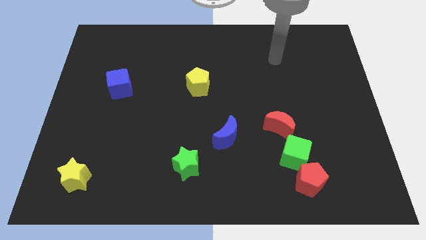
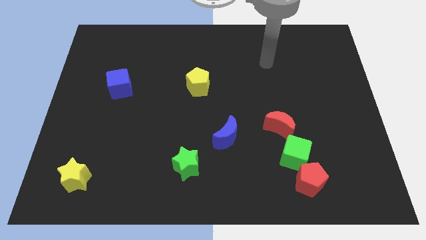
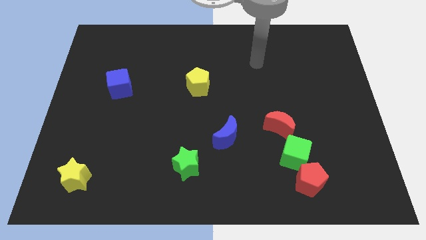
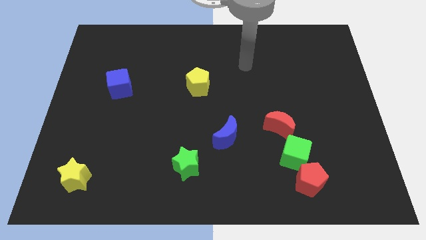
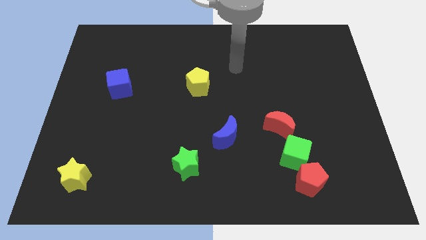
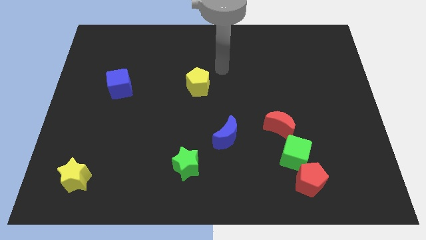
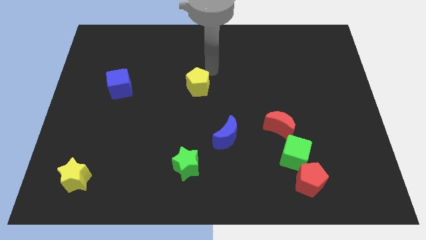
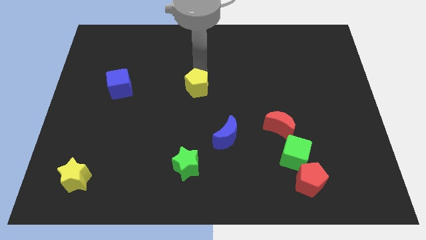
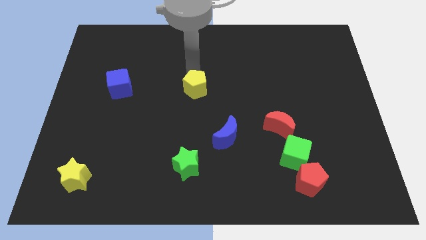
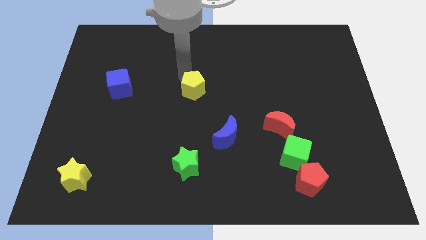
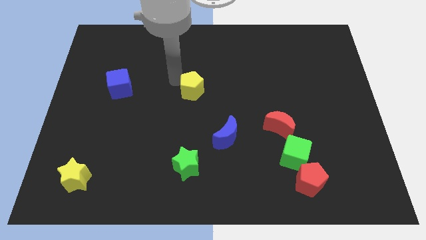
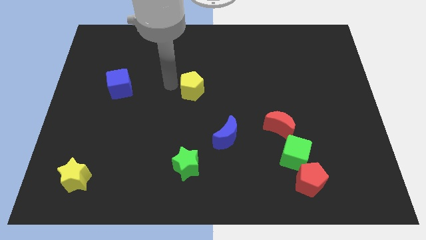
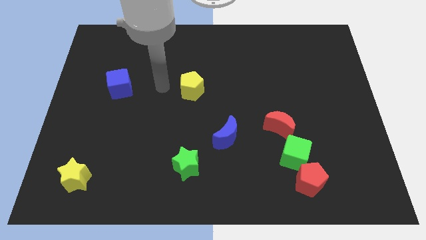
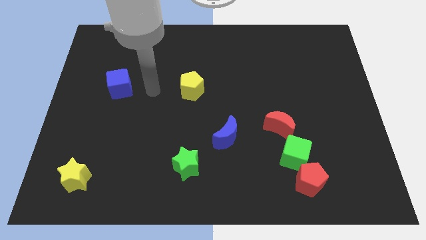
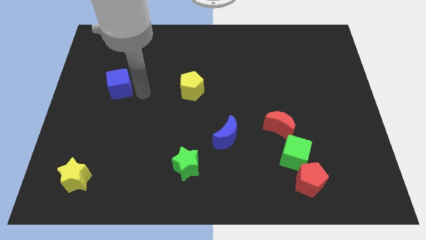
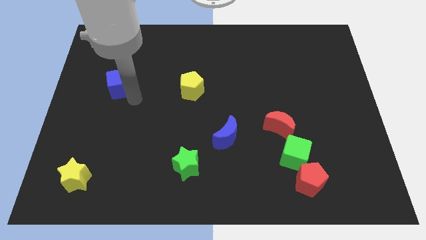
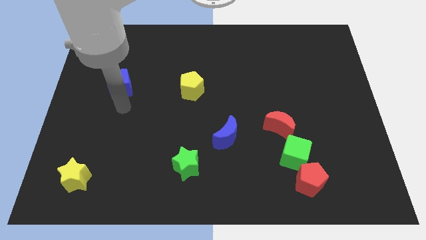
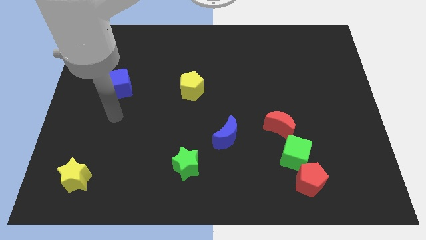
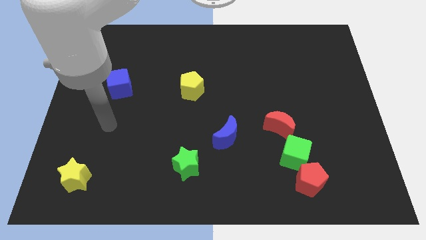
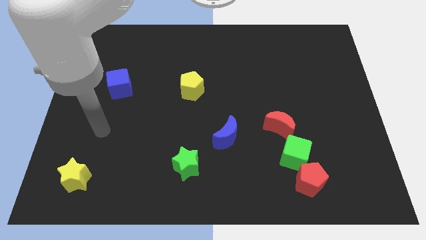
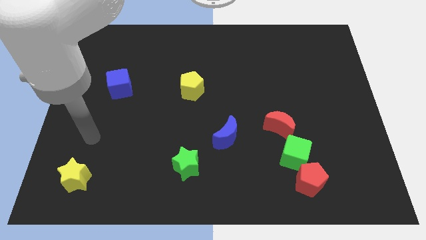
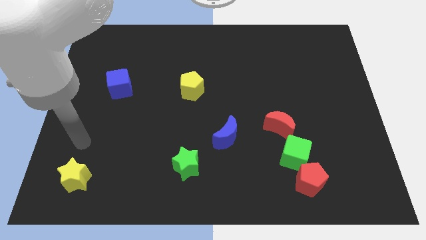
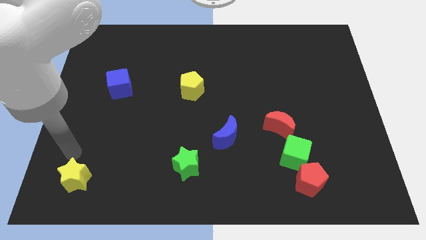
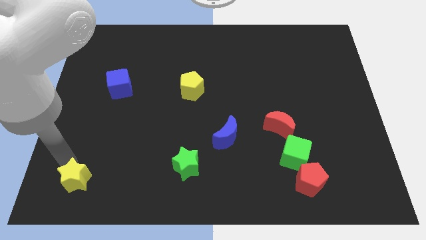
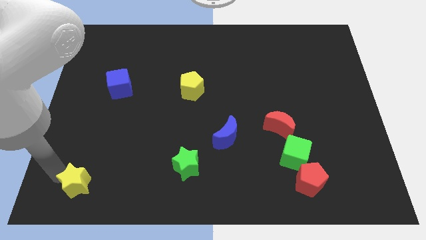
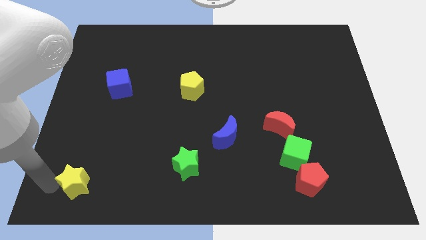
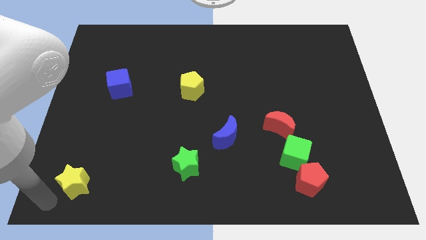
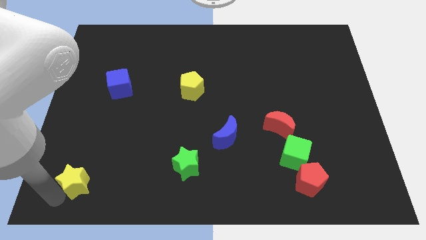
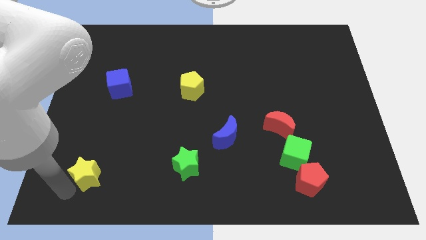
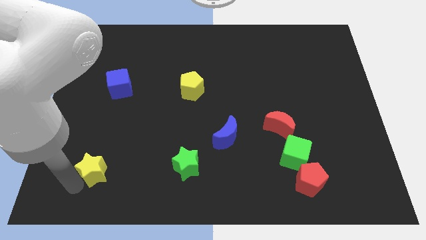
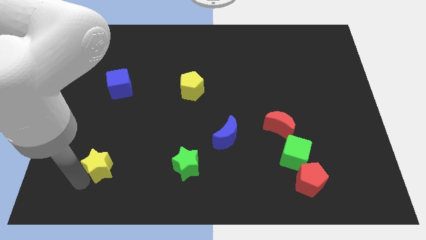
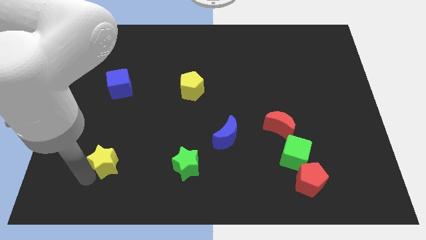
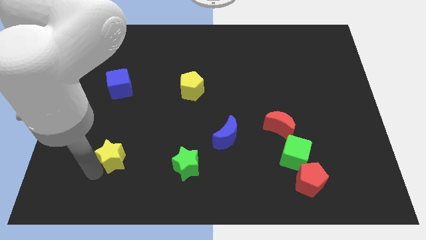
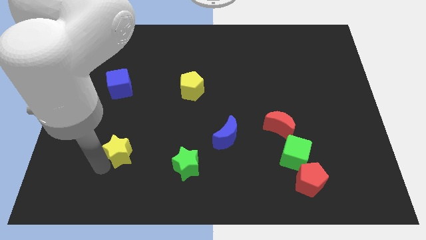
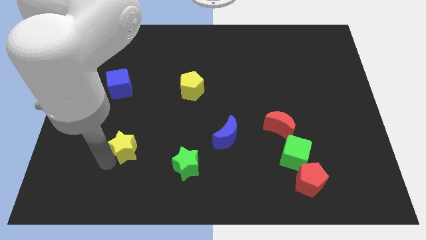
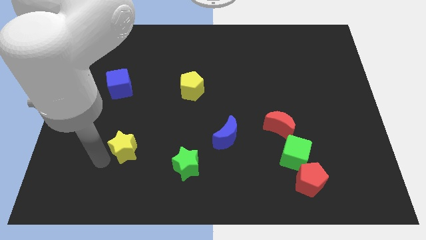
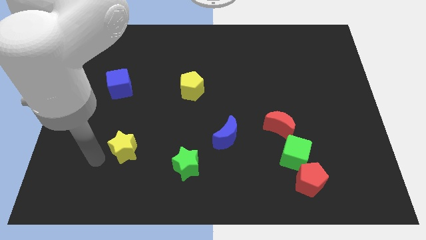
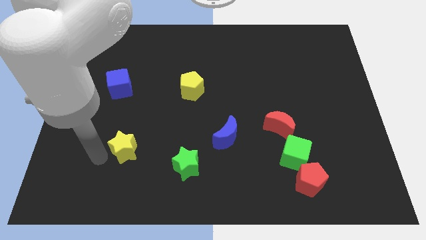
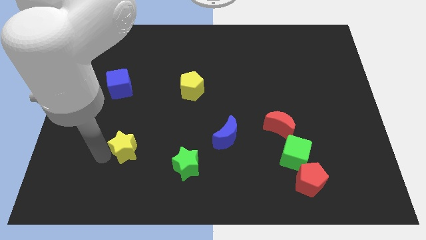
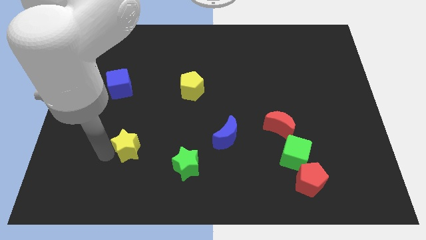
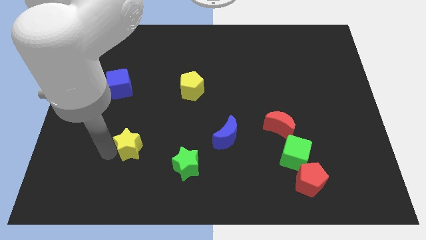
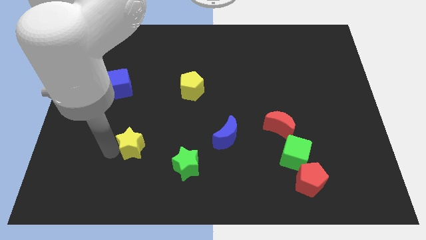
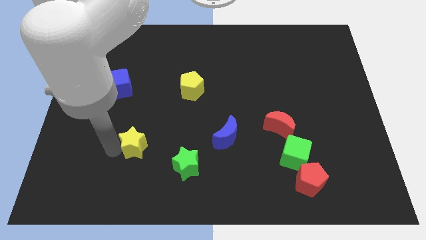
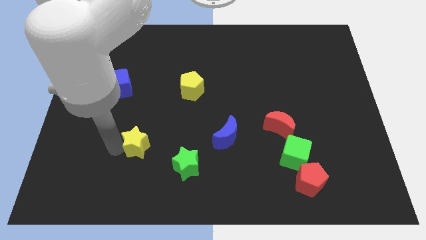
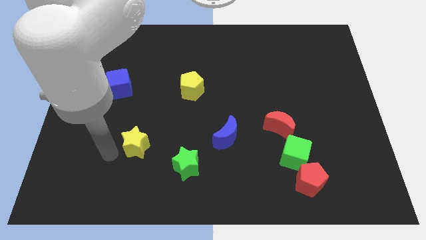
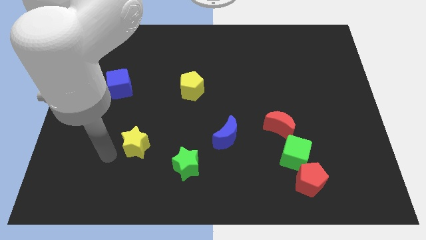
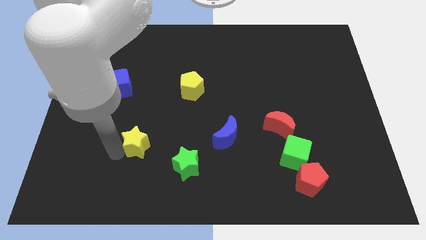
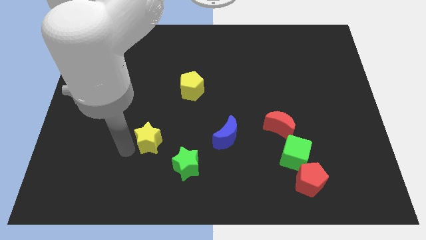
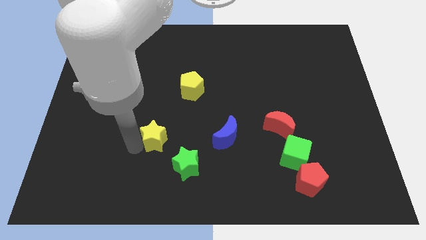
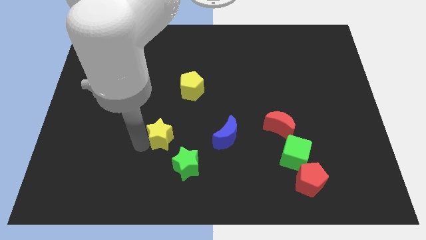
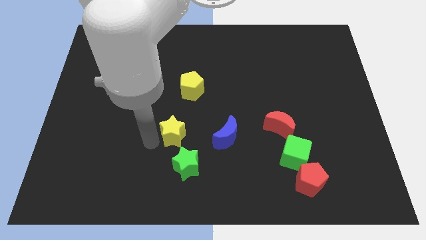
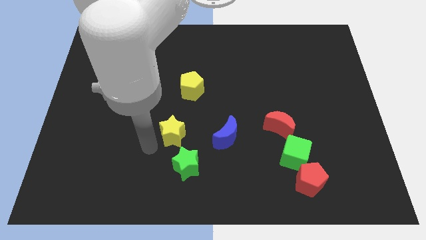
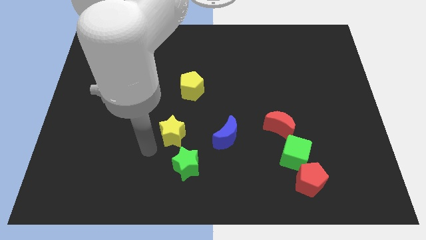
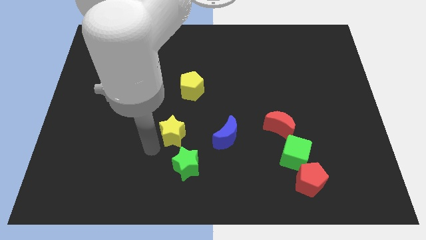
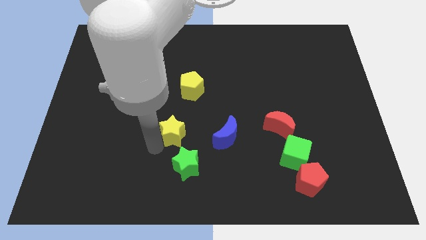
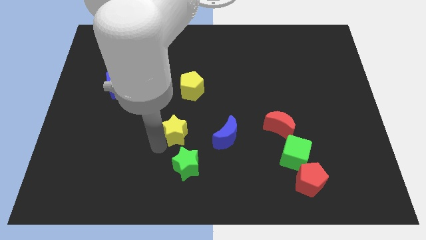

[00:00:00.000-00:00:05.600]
push the yellow star to the center

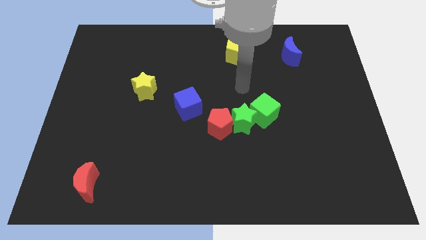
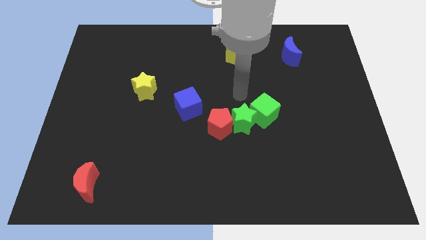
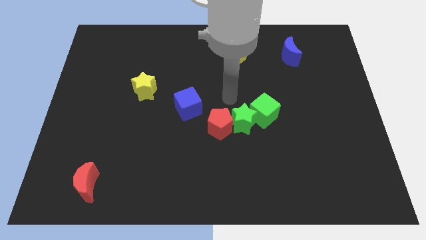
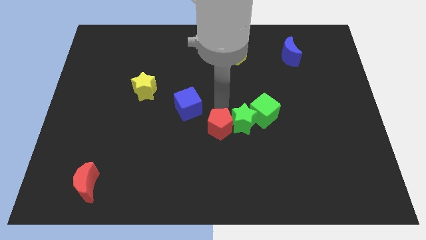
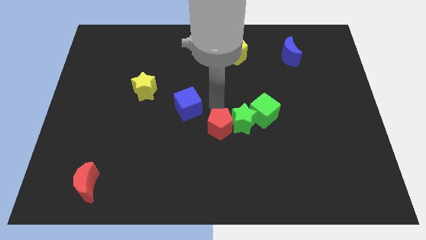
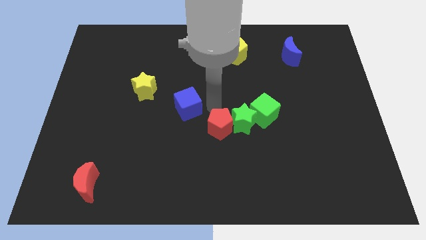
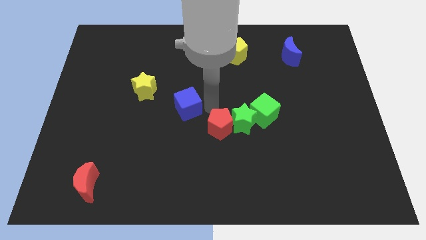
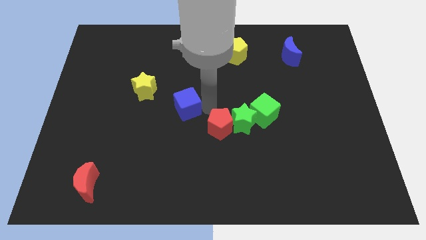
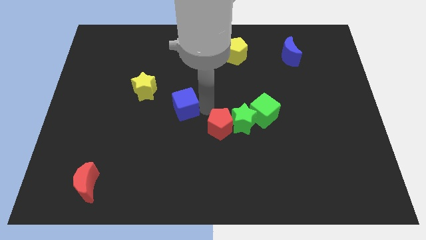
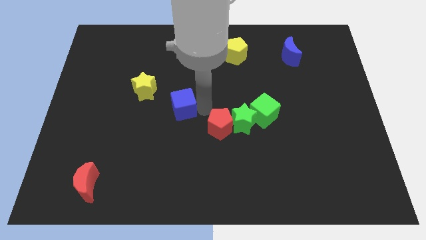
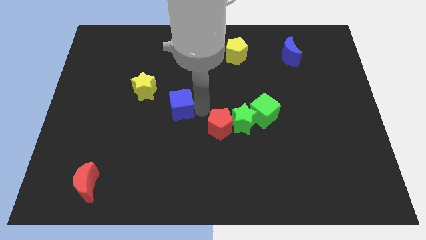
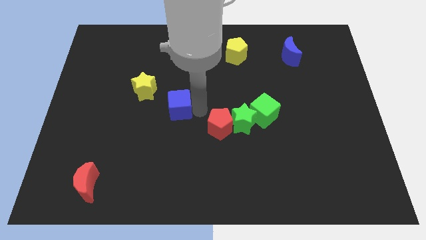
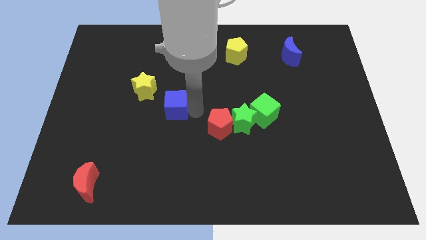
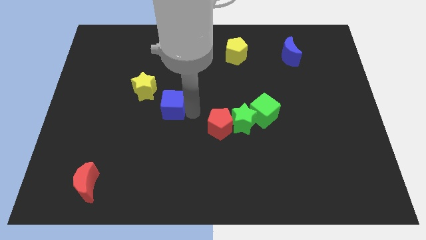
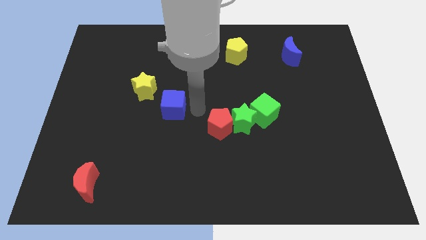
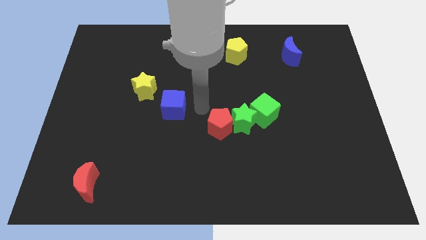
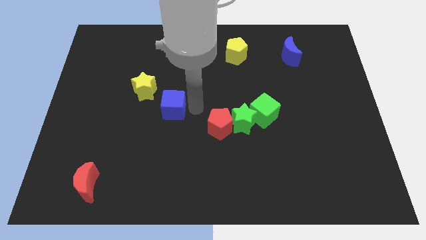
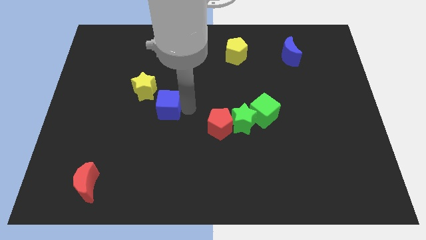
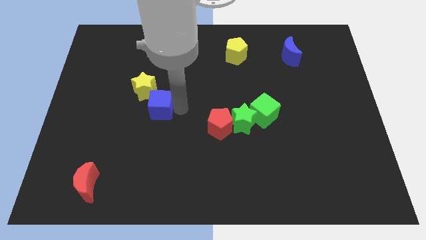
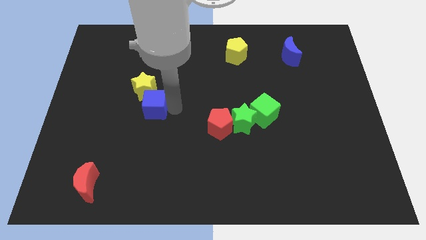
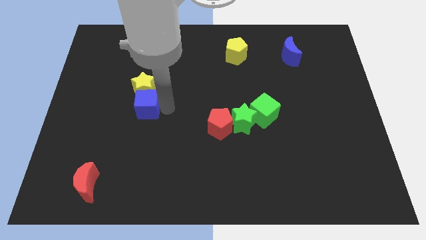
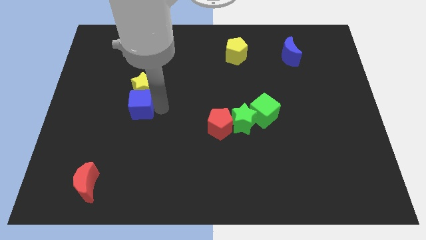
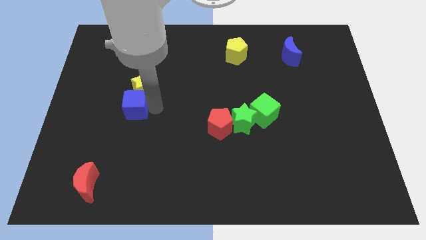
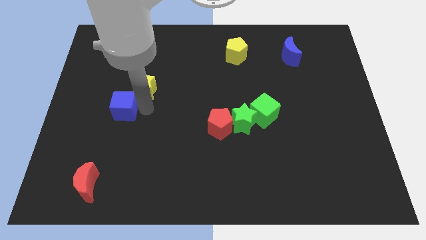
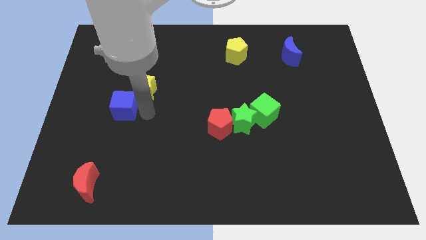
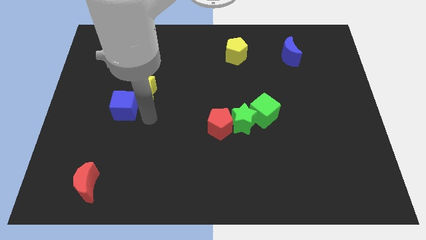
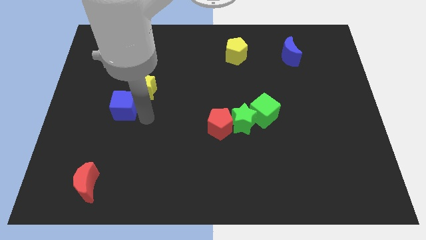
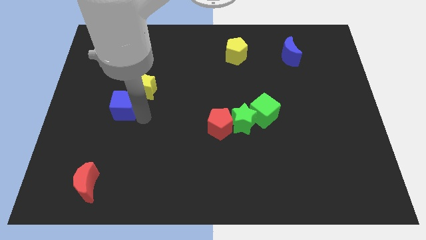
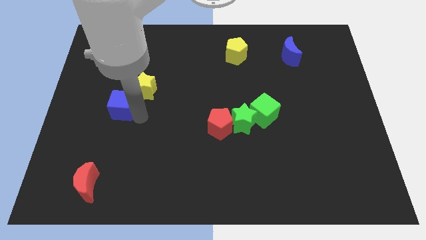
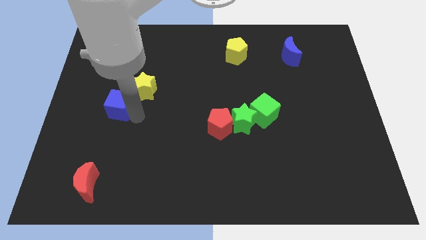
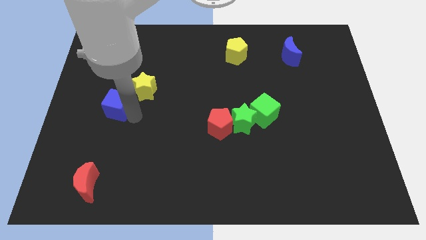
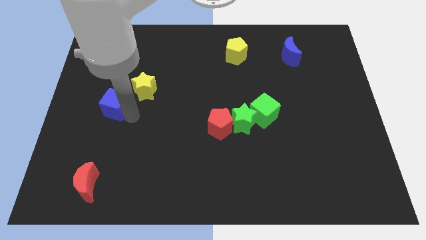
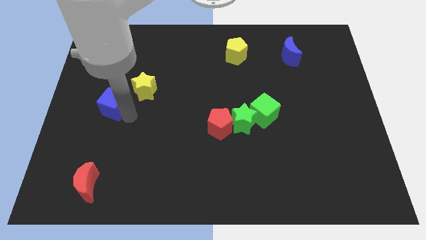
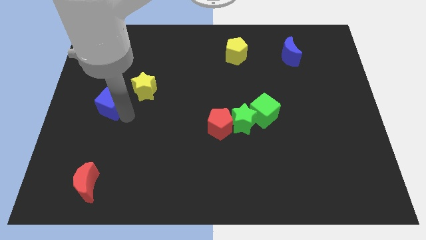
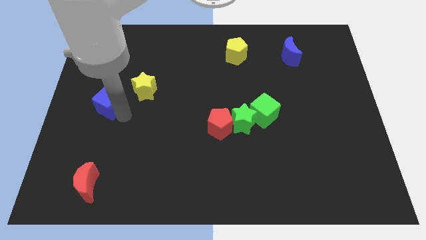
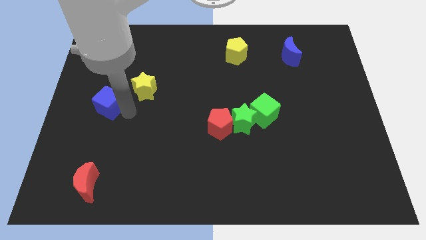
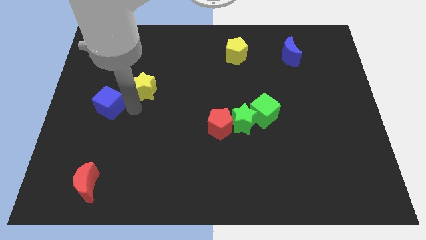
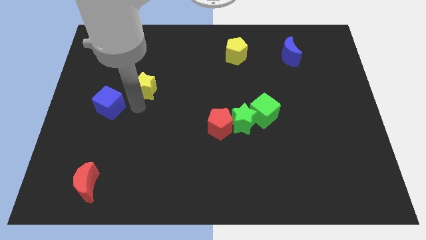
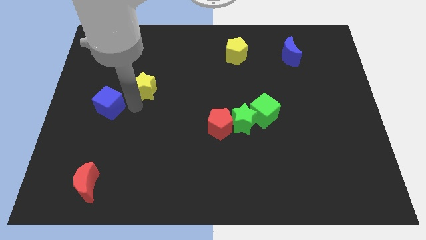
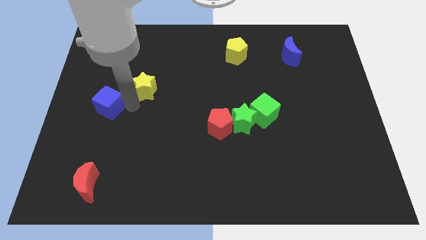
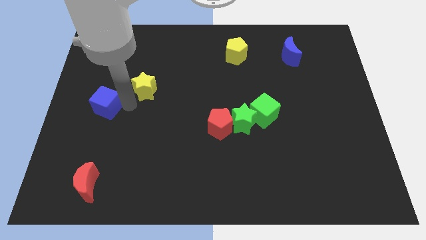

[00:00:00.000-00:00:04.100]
push the blue cube to the left side of the board
